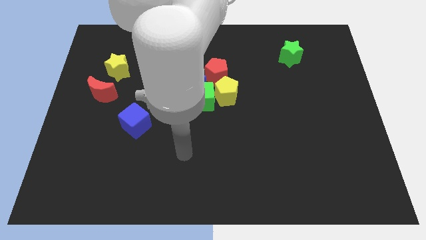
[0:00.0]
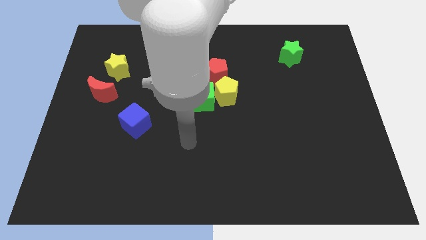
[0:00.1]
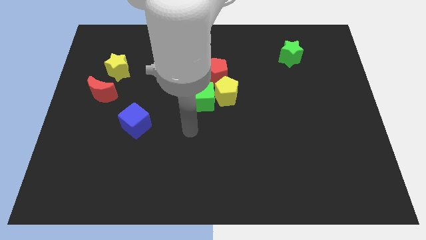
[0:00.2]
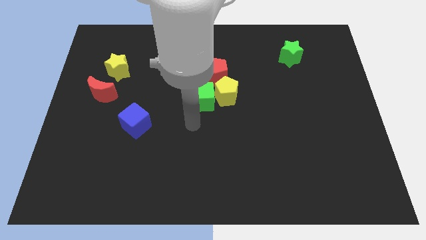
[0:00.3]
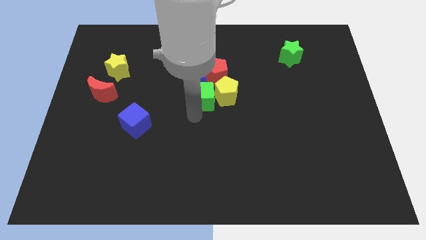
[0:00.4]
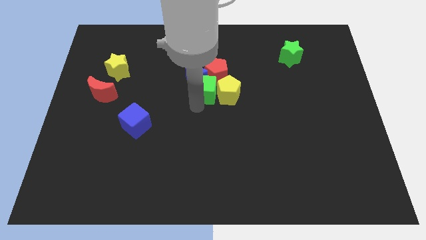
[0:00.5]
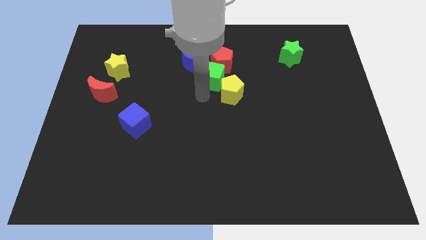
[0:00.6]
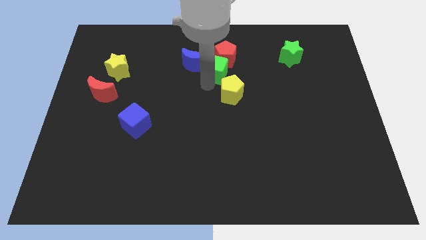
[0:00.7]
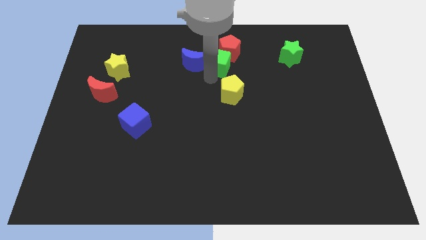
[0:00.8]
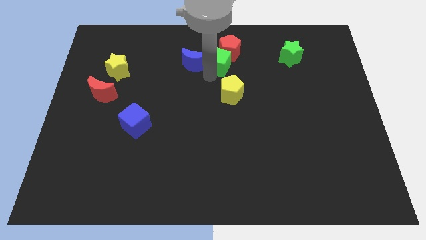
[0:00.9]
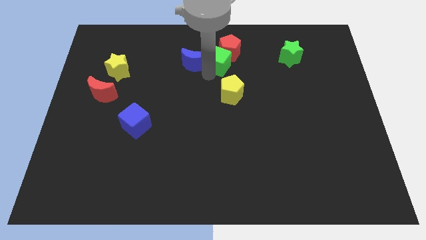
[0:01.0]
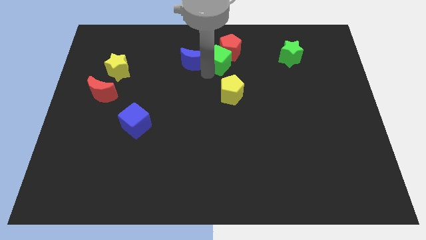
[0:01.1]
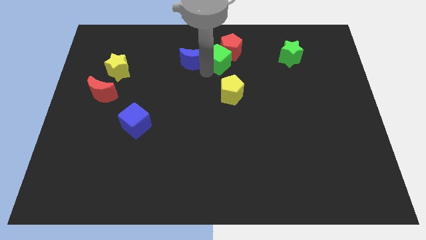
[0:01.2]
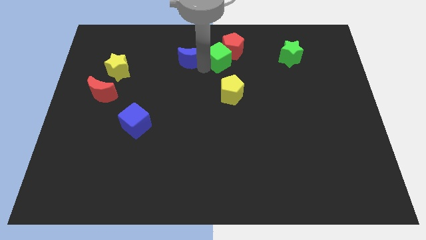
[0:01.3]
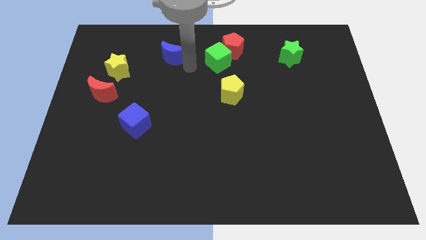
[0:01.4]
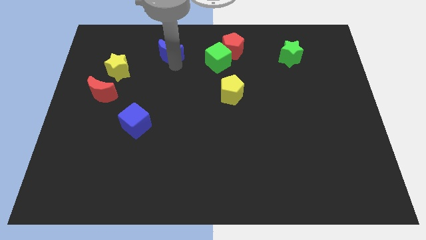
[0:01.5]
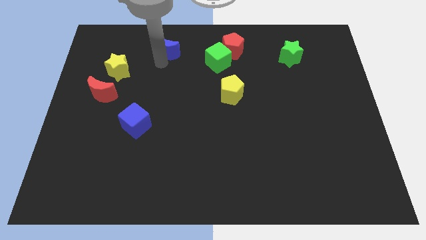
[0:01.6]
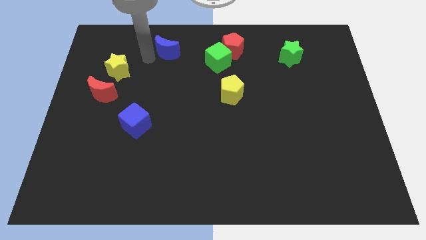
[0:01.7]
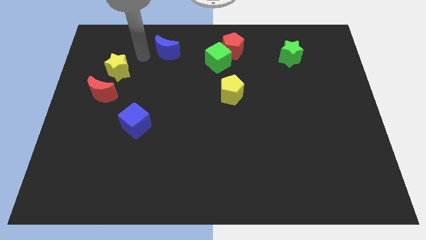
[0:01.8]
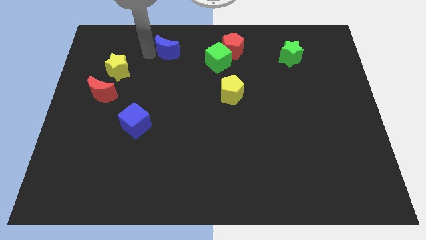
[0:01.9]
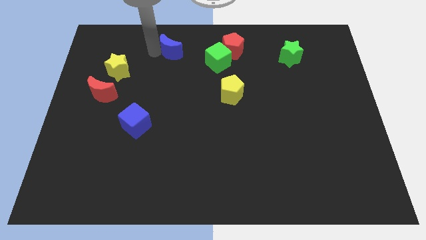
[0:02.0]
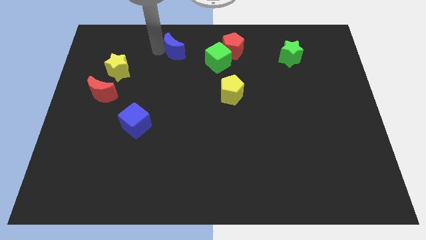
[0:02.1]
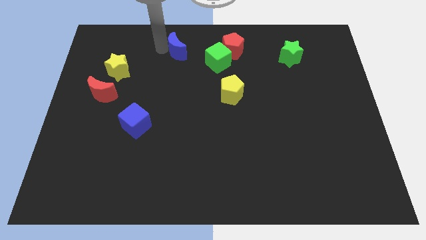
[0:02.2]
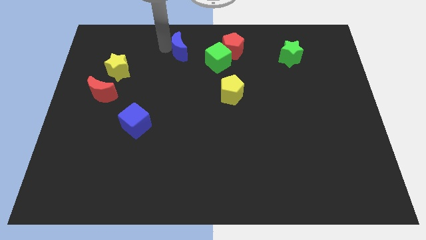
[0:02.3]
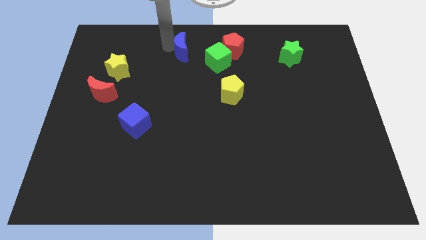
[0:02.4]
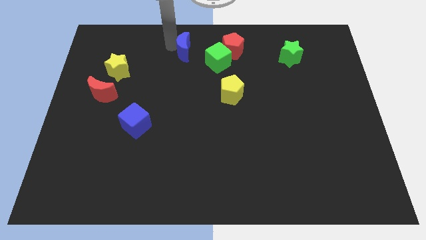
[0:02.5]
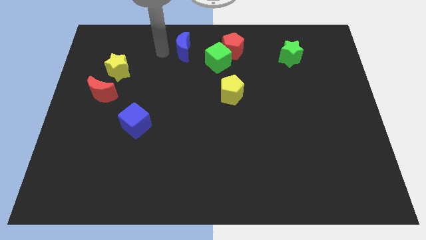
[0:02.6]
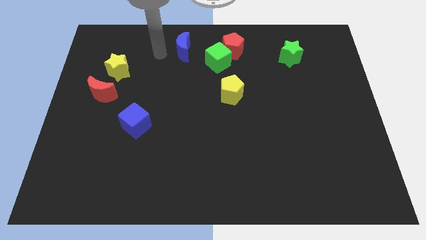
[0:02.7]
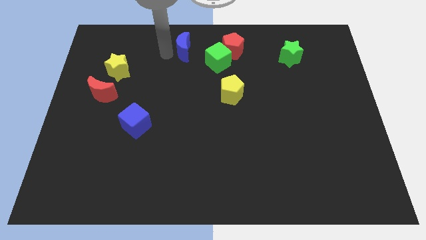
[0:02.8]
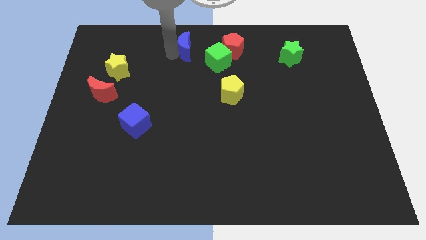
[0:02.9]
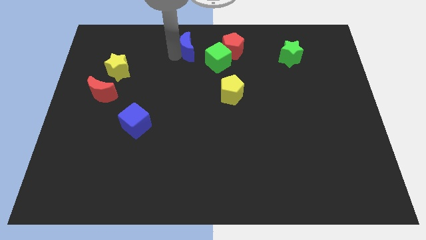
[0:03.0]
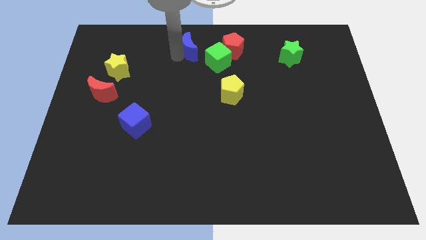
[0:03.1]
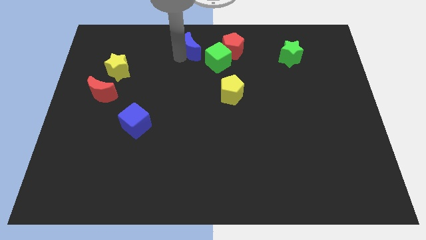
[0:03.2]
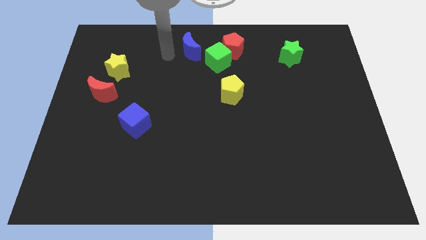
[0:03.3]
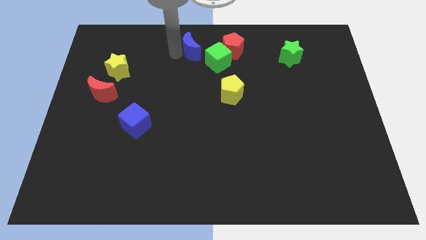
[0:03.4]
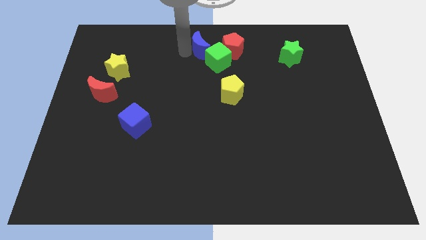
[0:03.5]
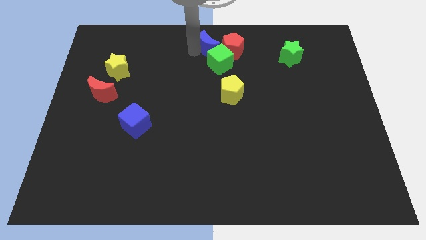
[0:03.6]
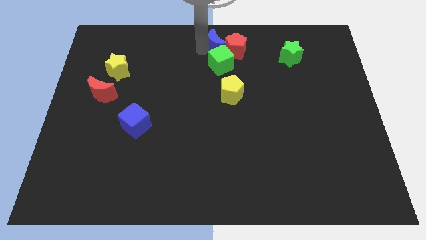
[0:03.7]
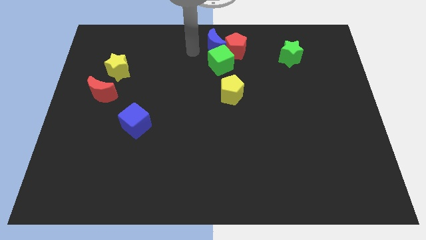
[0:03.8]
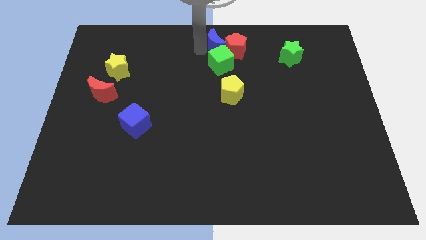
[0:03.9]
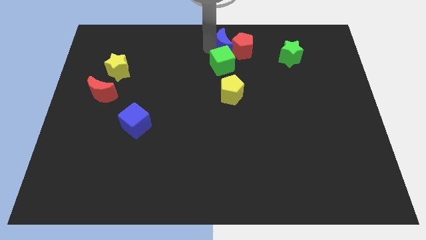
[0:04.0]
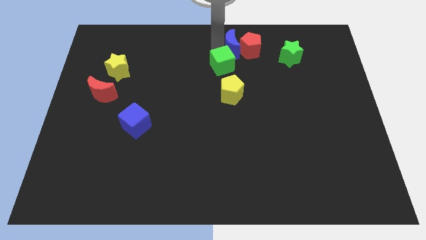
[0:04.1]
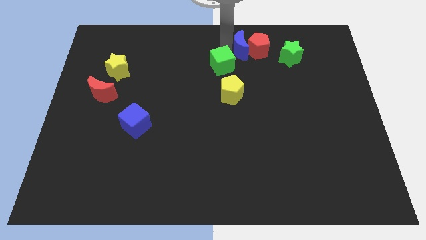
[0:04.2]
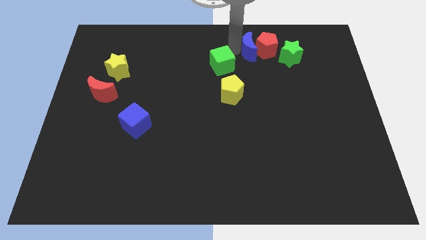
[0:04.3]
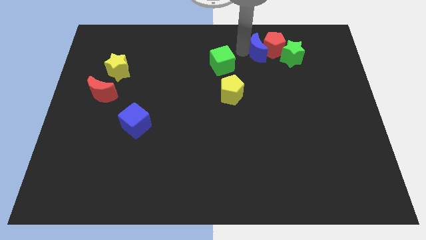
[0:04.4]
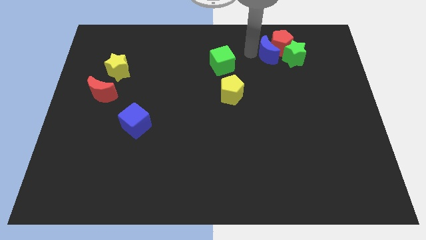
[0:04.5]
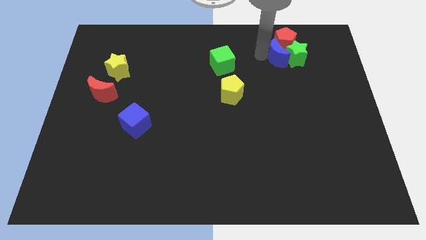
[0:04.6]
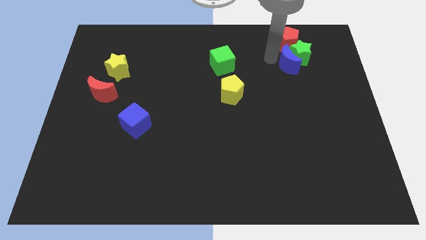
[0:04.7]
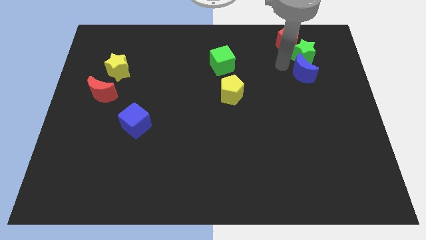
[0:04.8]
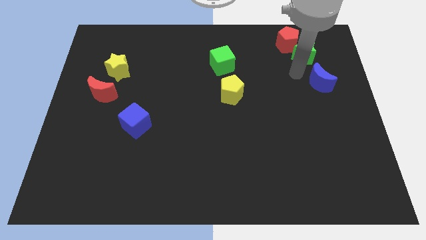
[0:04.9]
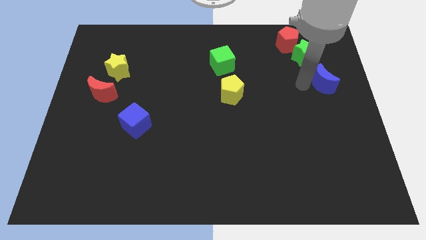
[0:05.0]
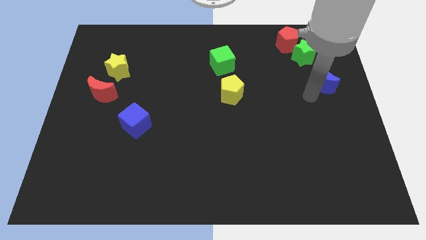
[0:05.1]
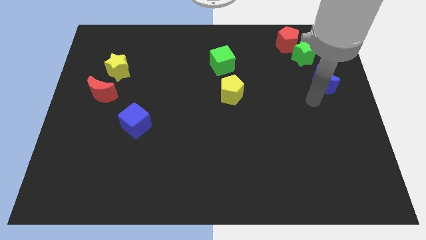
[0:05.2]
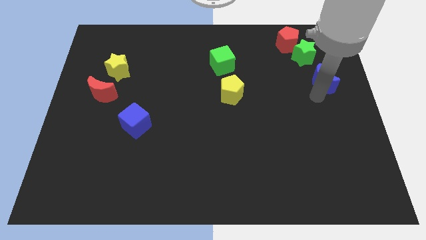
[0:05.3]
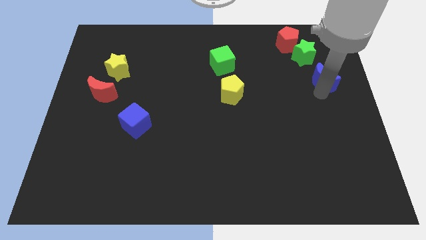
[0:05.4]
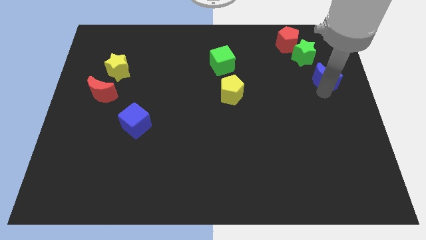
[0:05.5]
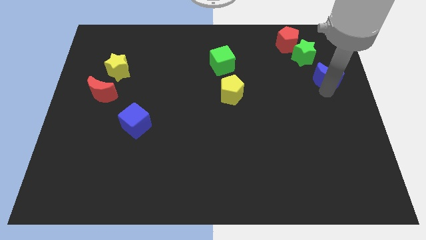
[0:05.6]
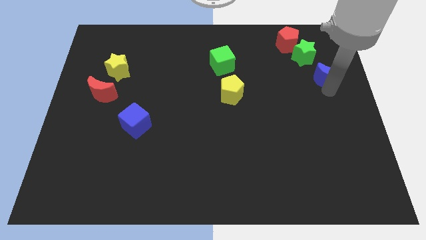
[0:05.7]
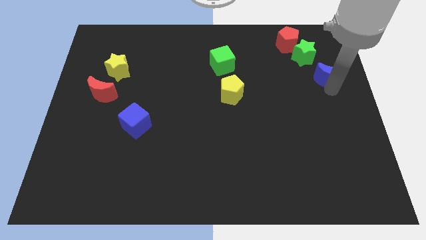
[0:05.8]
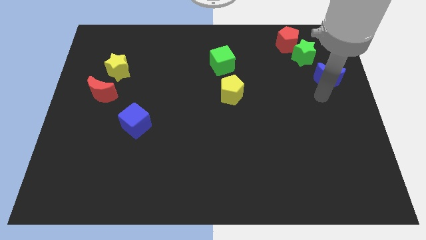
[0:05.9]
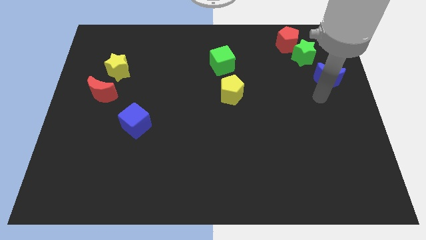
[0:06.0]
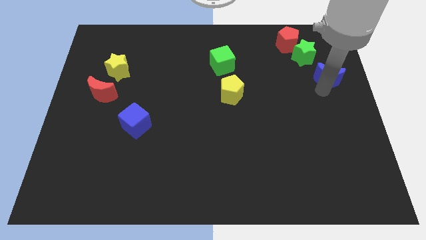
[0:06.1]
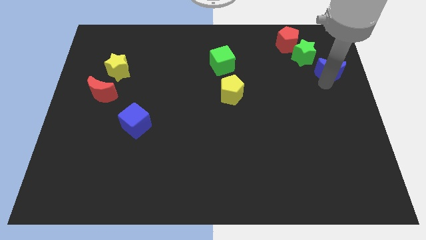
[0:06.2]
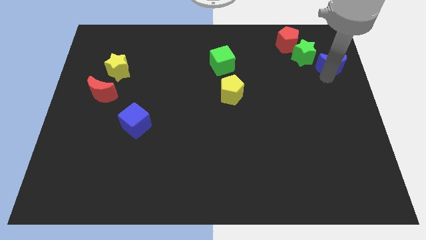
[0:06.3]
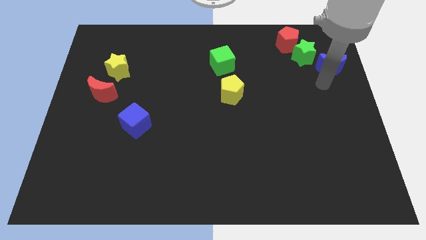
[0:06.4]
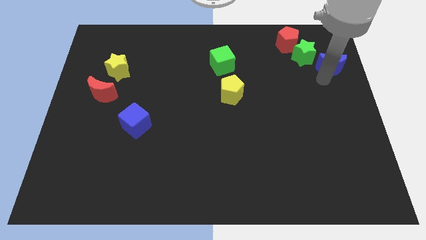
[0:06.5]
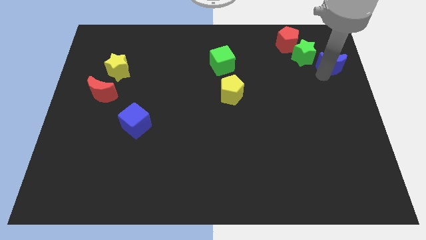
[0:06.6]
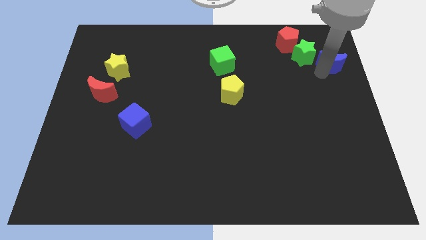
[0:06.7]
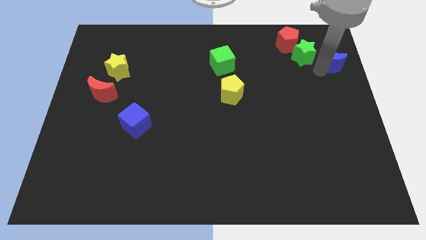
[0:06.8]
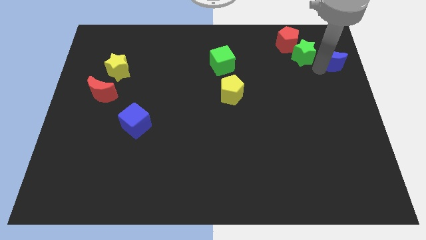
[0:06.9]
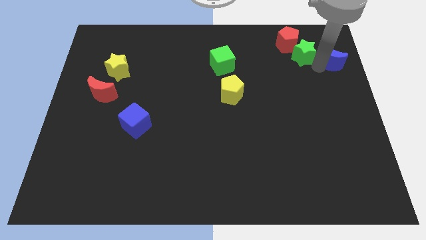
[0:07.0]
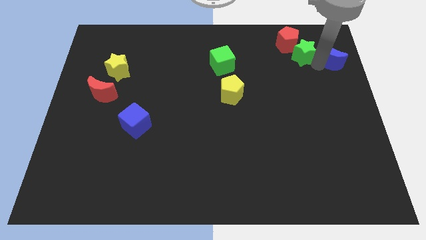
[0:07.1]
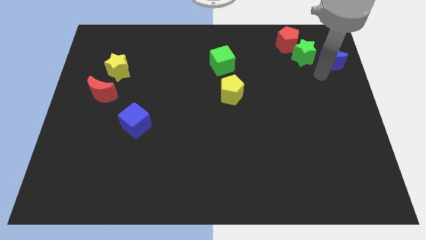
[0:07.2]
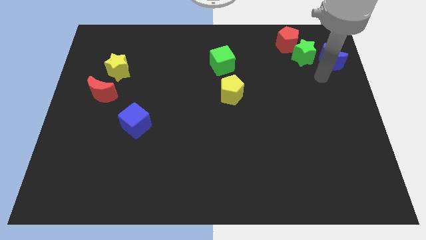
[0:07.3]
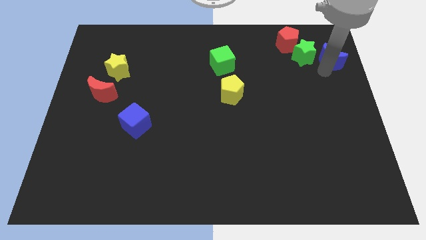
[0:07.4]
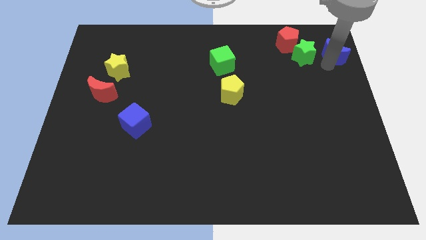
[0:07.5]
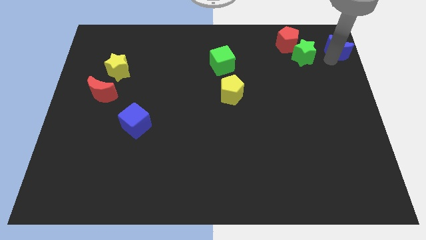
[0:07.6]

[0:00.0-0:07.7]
push the blue moon to the top right
